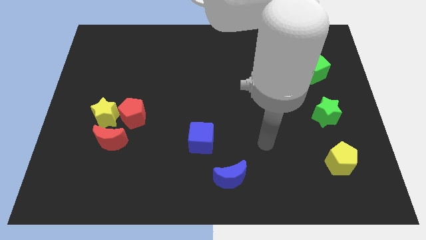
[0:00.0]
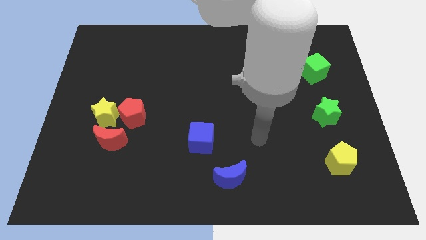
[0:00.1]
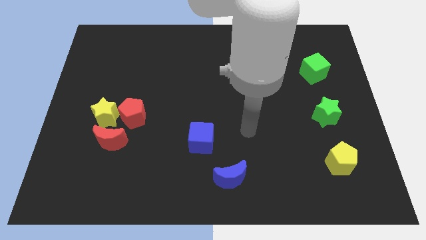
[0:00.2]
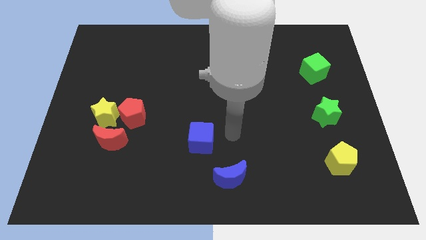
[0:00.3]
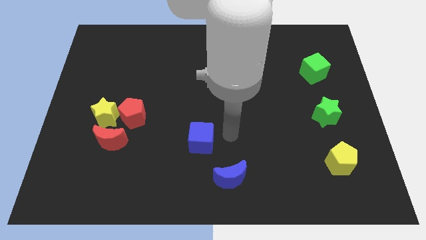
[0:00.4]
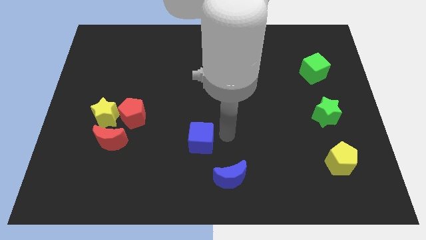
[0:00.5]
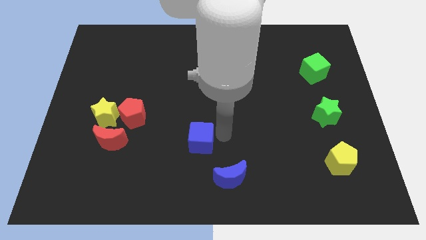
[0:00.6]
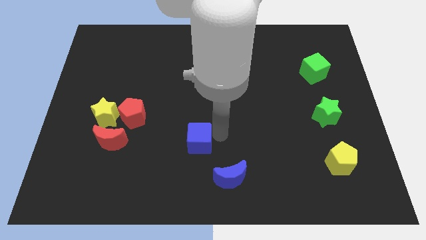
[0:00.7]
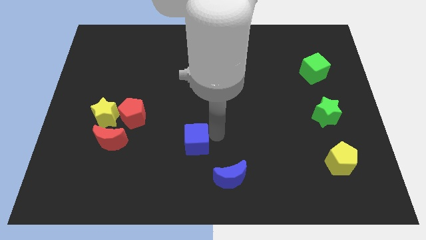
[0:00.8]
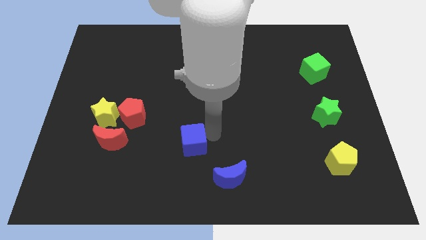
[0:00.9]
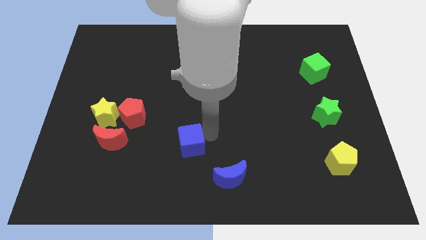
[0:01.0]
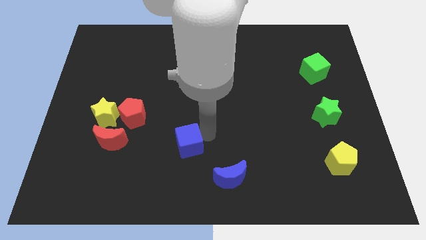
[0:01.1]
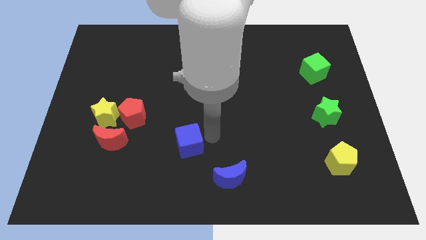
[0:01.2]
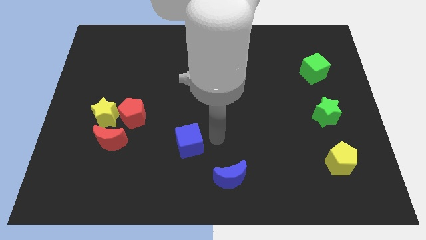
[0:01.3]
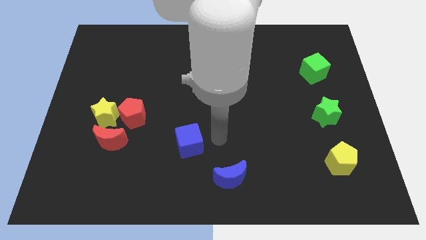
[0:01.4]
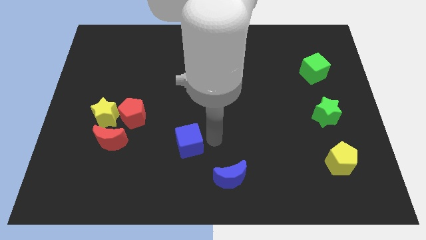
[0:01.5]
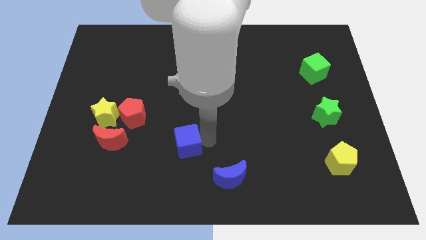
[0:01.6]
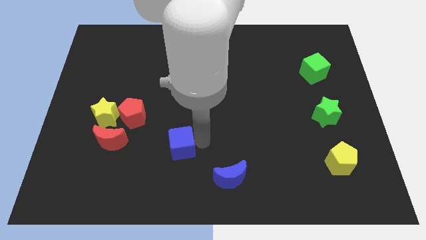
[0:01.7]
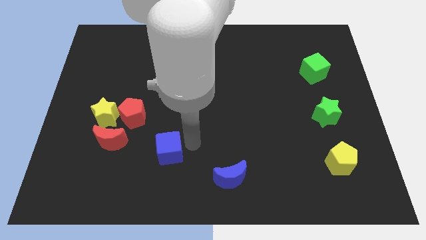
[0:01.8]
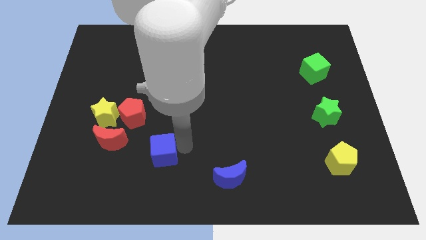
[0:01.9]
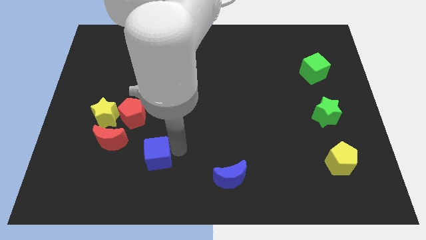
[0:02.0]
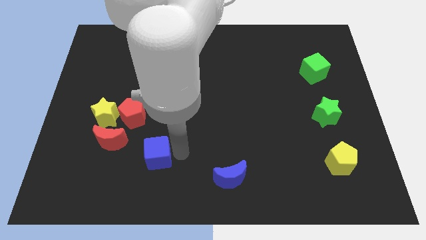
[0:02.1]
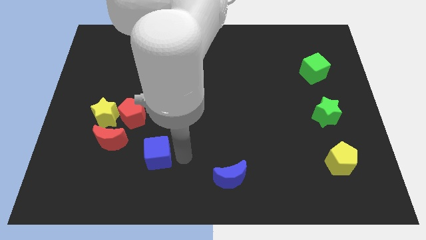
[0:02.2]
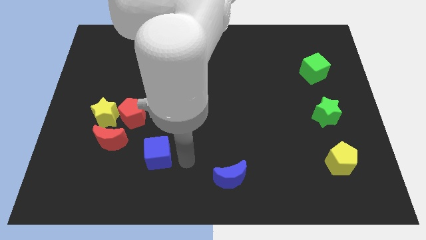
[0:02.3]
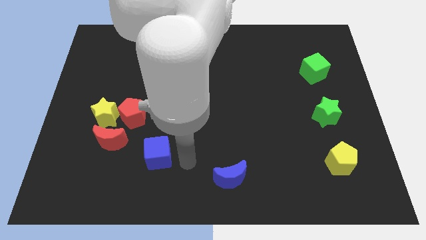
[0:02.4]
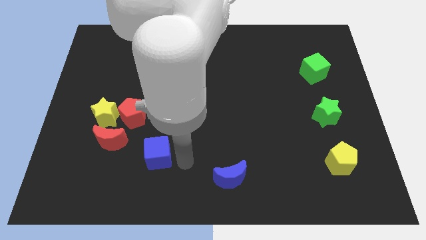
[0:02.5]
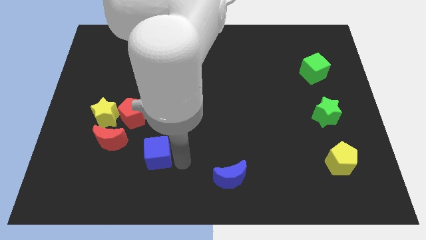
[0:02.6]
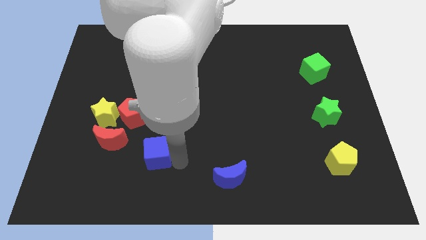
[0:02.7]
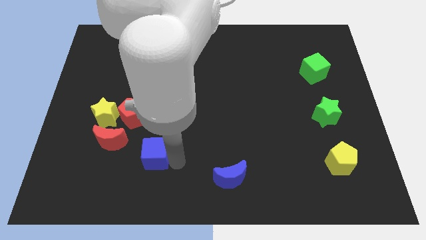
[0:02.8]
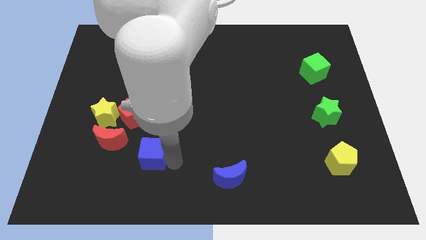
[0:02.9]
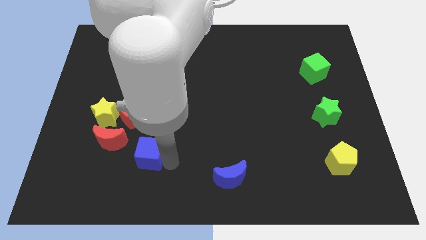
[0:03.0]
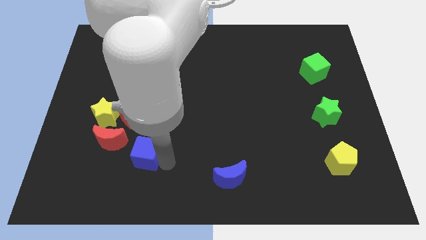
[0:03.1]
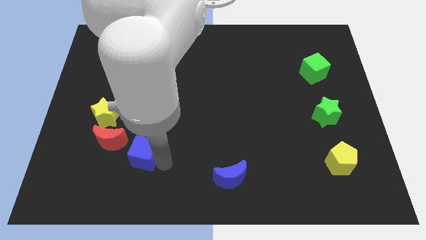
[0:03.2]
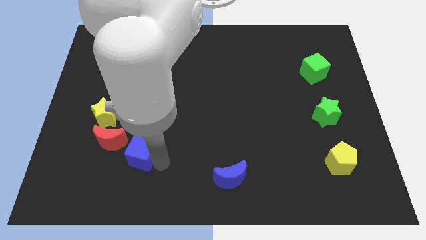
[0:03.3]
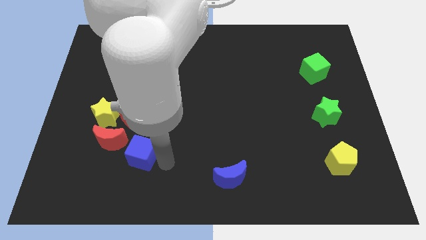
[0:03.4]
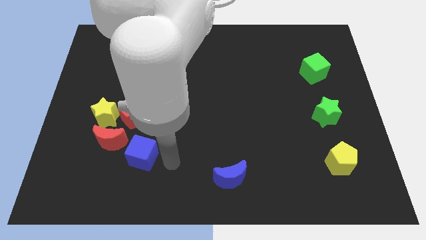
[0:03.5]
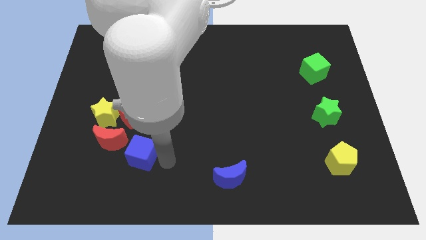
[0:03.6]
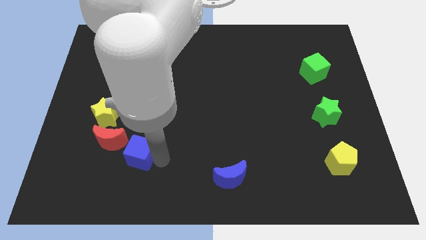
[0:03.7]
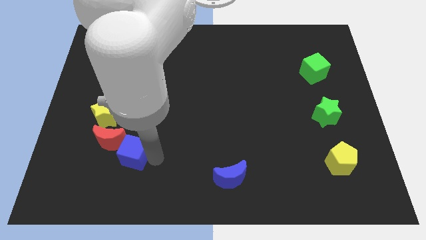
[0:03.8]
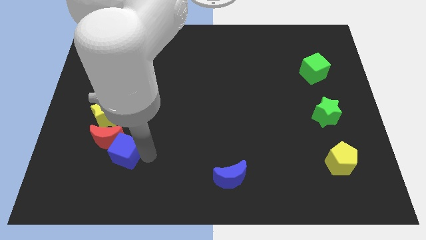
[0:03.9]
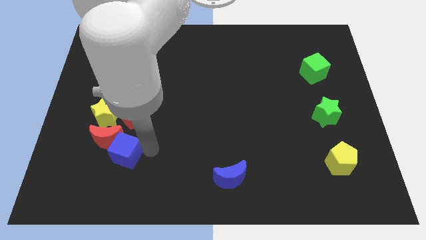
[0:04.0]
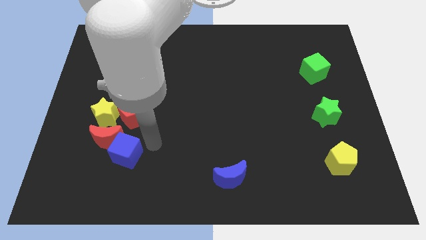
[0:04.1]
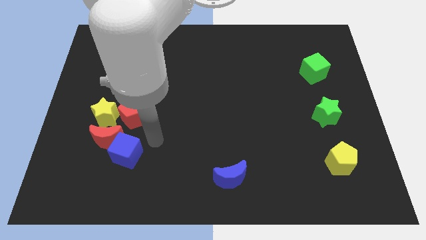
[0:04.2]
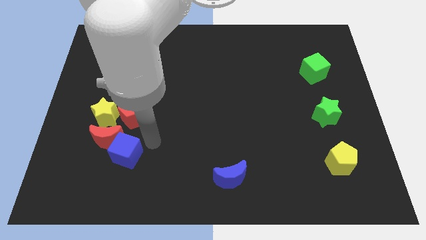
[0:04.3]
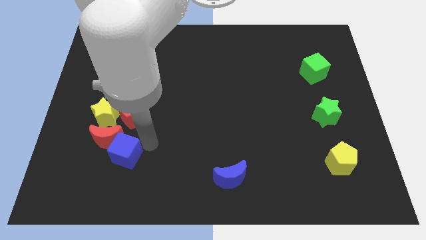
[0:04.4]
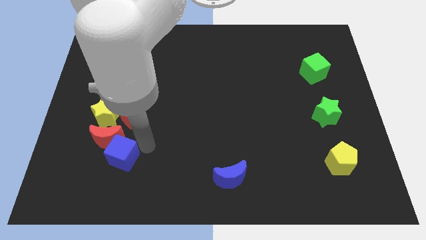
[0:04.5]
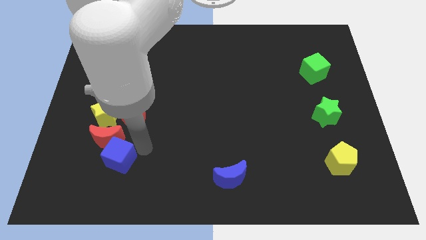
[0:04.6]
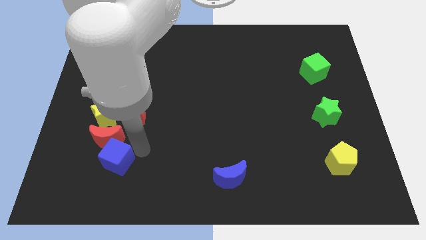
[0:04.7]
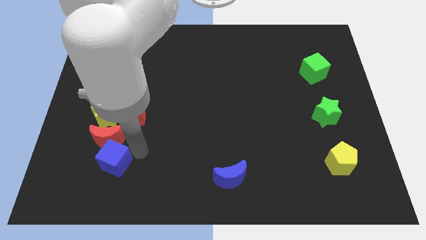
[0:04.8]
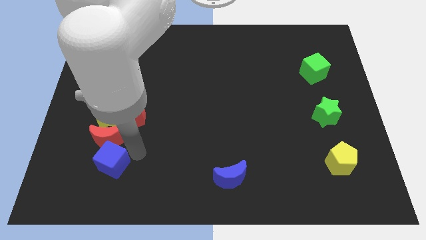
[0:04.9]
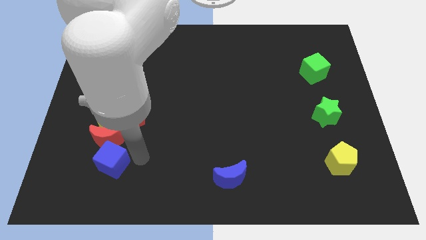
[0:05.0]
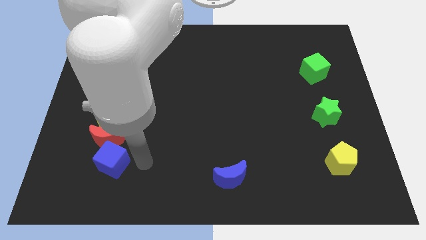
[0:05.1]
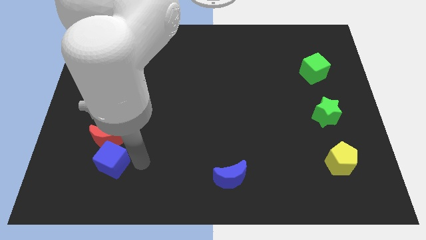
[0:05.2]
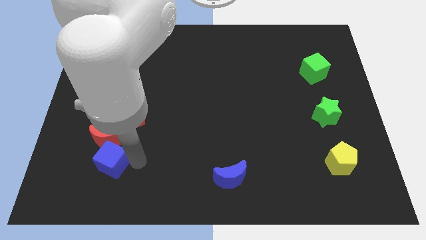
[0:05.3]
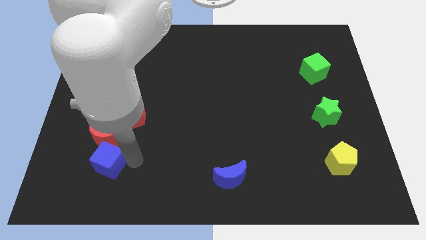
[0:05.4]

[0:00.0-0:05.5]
put the blue cube diagonally down and to the left of the red moon

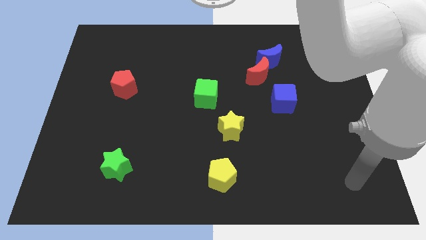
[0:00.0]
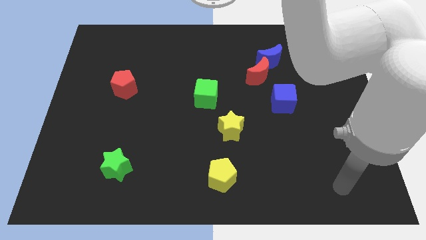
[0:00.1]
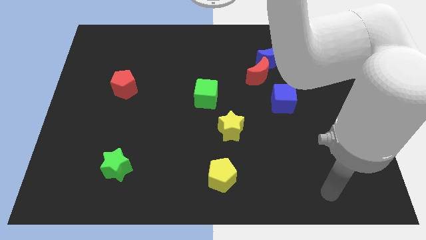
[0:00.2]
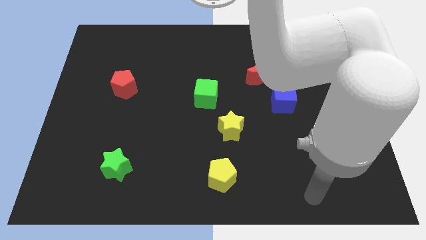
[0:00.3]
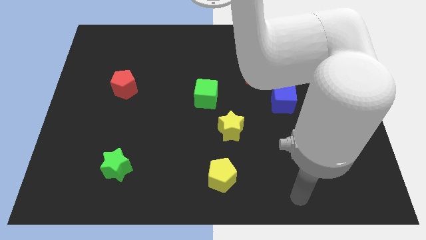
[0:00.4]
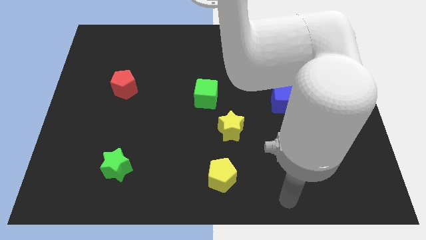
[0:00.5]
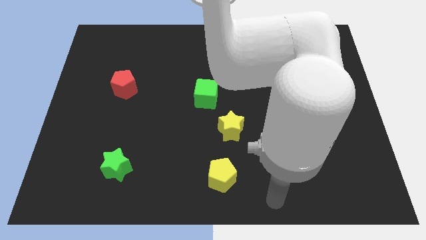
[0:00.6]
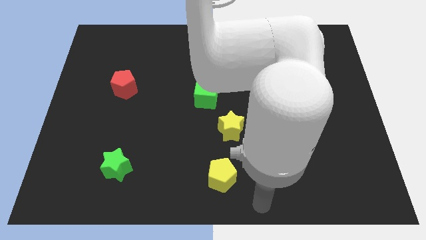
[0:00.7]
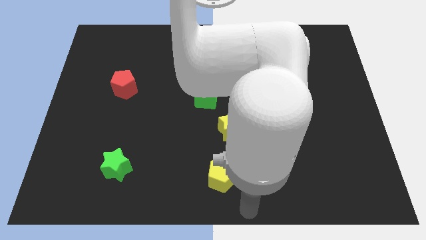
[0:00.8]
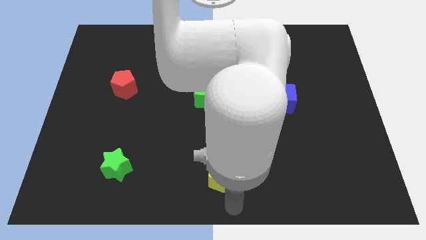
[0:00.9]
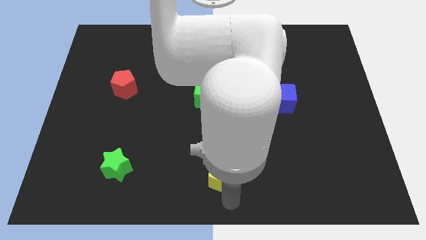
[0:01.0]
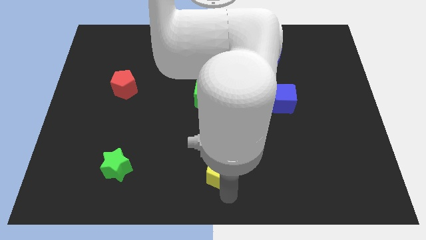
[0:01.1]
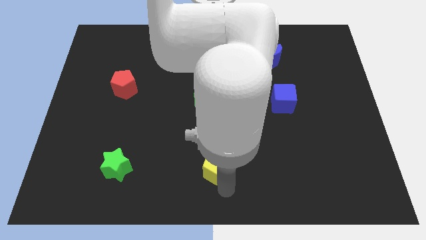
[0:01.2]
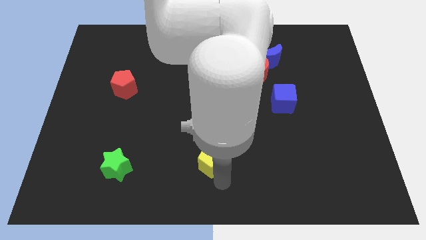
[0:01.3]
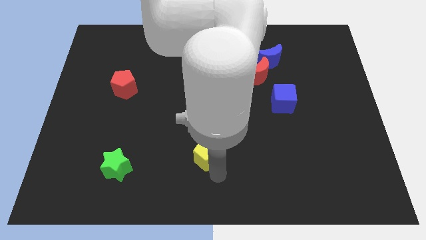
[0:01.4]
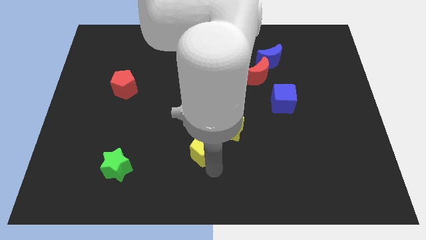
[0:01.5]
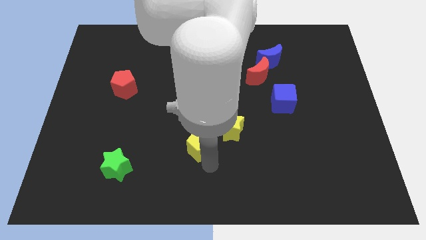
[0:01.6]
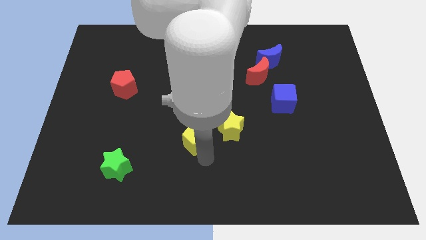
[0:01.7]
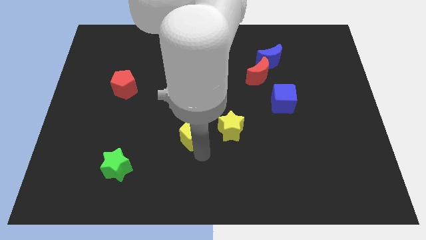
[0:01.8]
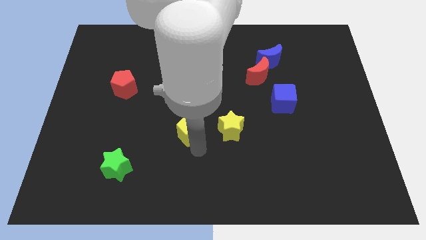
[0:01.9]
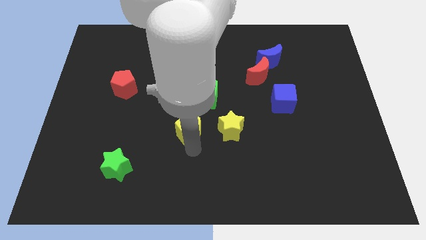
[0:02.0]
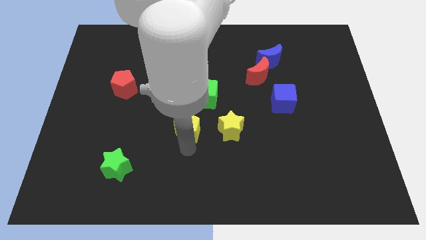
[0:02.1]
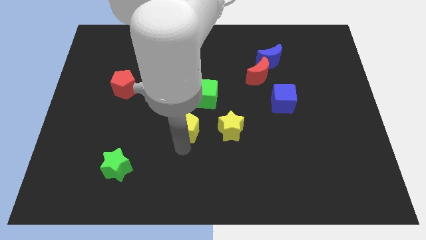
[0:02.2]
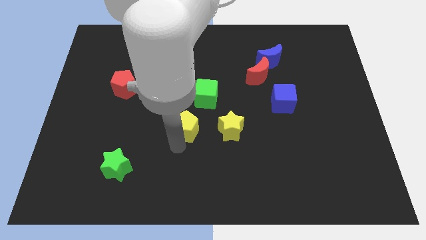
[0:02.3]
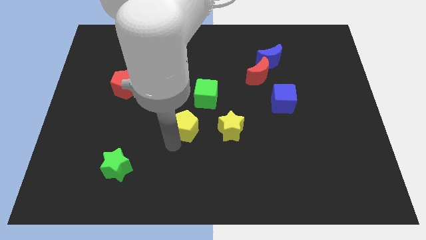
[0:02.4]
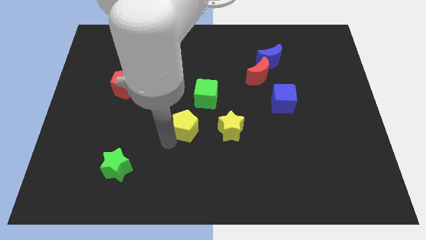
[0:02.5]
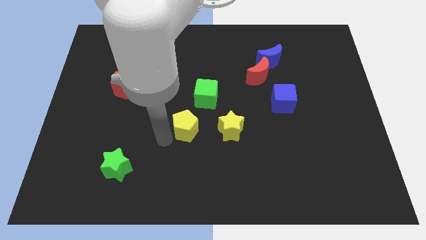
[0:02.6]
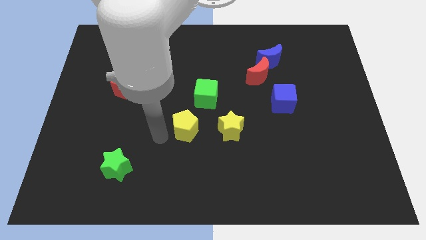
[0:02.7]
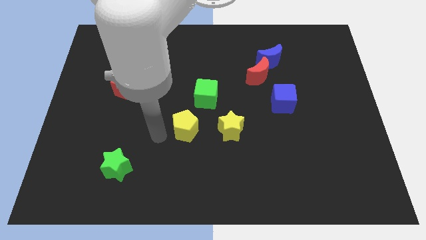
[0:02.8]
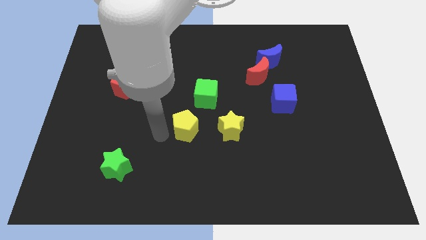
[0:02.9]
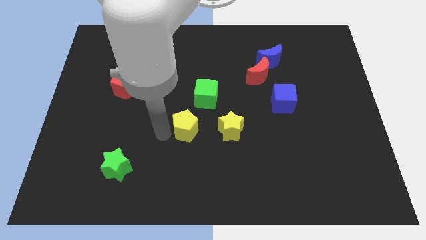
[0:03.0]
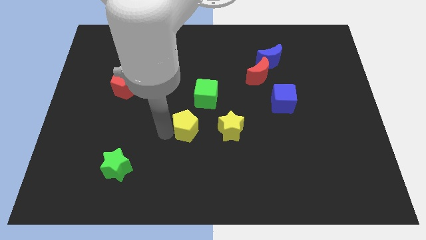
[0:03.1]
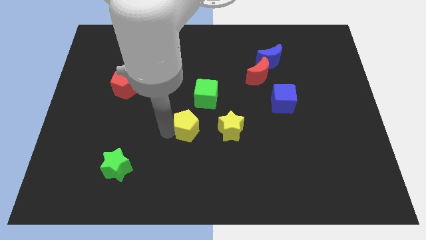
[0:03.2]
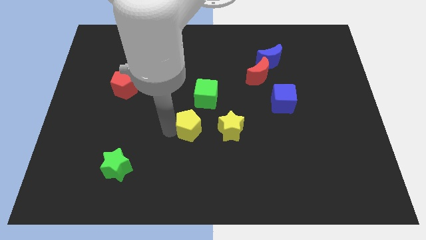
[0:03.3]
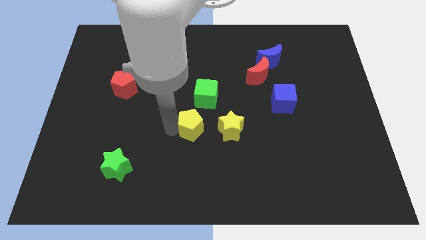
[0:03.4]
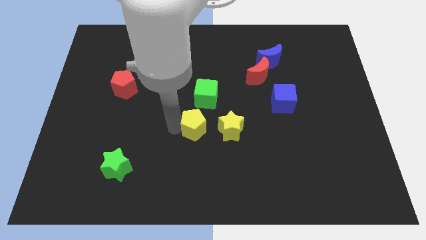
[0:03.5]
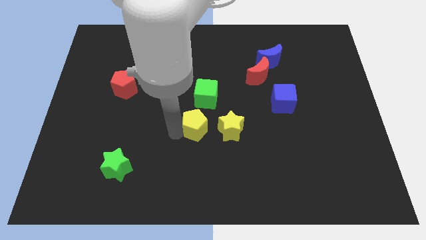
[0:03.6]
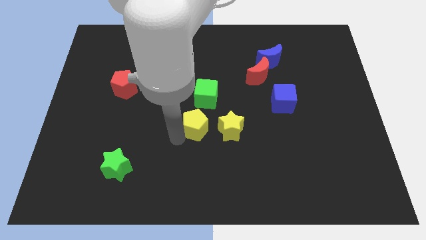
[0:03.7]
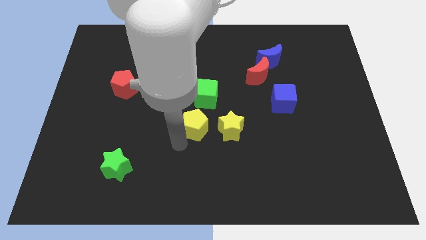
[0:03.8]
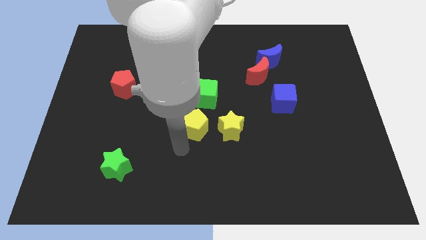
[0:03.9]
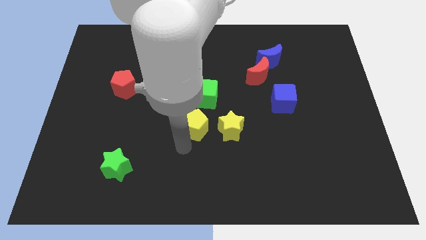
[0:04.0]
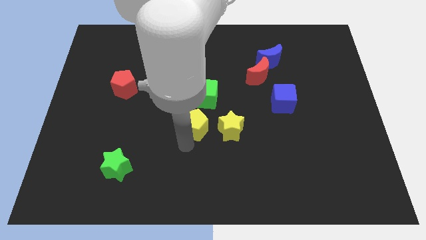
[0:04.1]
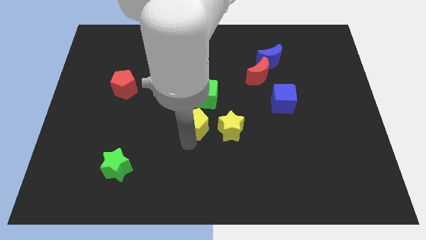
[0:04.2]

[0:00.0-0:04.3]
put the yellow pentagon diagonally up and to the left of the yellow star
